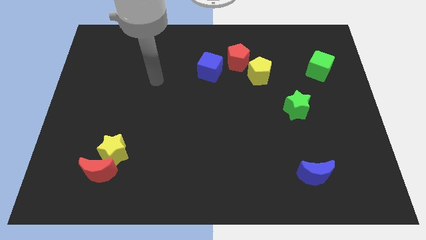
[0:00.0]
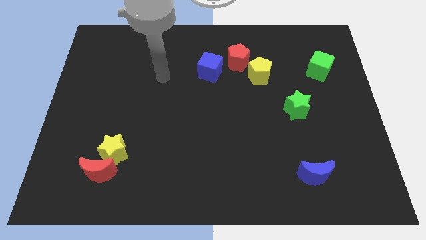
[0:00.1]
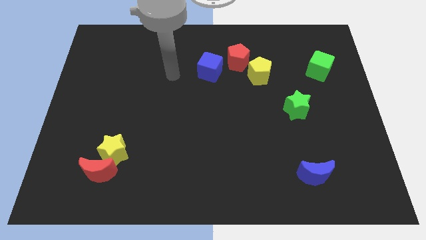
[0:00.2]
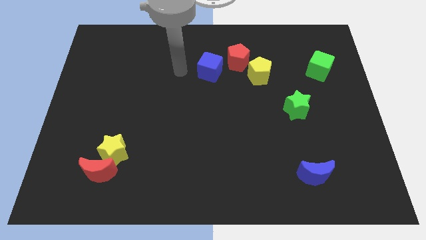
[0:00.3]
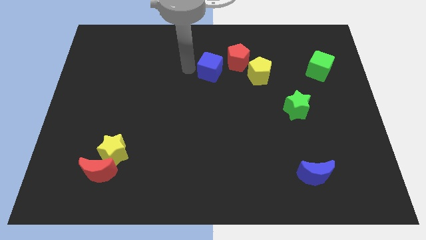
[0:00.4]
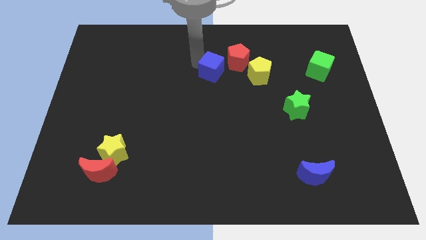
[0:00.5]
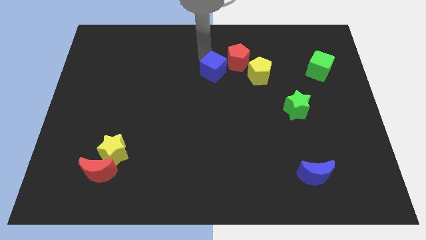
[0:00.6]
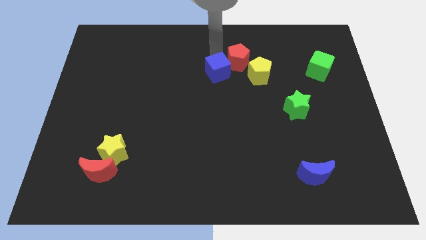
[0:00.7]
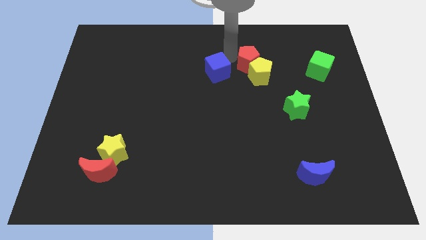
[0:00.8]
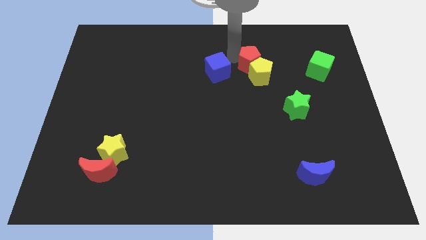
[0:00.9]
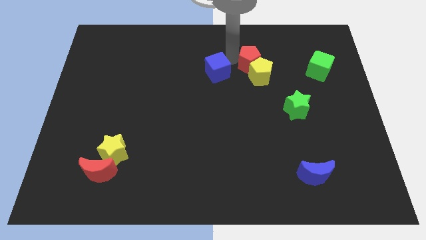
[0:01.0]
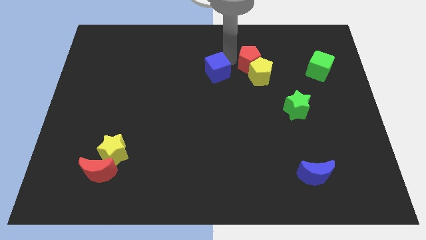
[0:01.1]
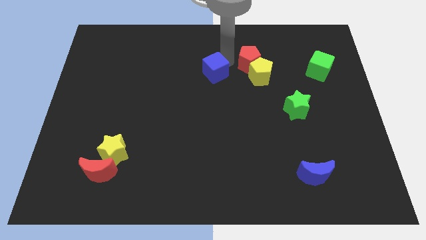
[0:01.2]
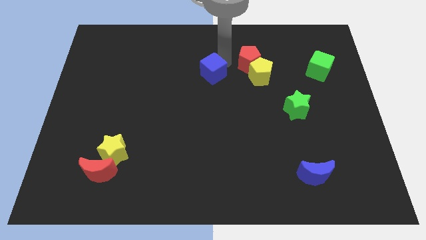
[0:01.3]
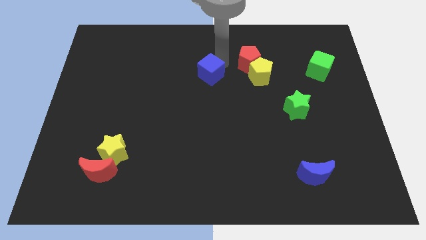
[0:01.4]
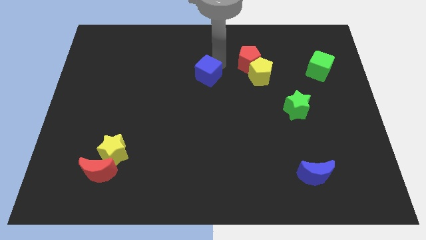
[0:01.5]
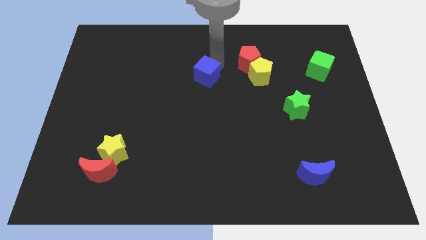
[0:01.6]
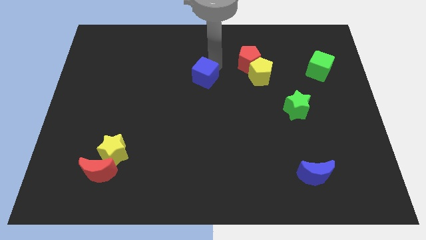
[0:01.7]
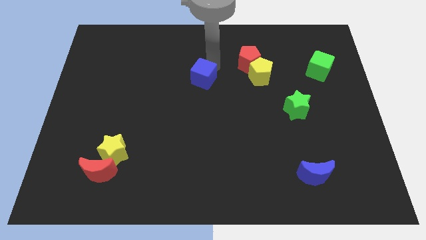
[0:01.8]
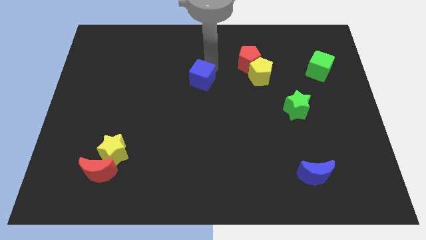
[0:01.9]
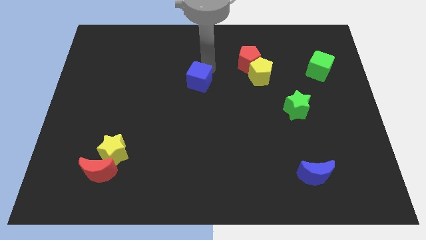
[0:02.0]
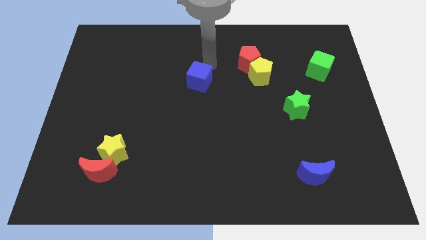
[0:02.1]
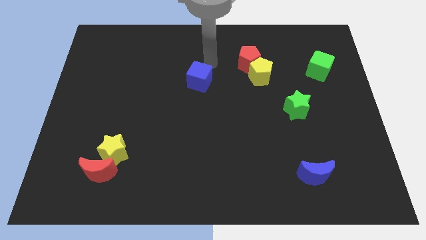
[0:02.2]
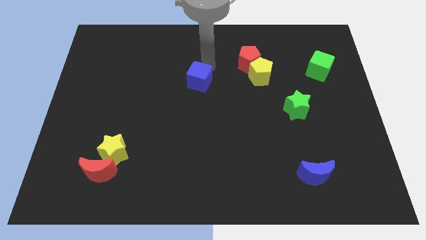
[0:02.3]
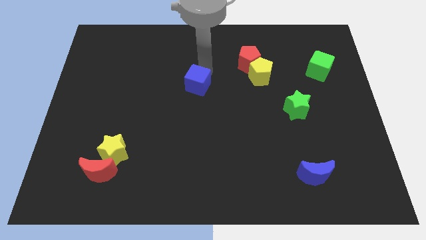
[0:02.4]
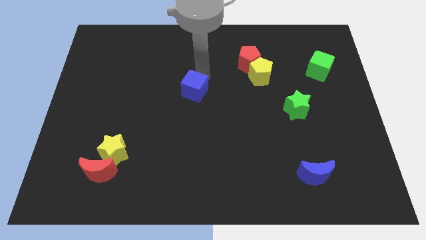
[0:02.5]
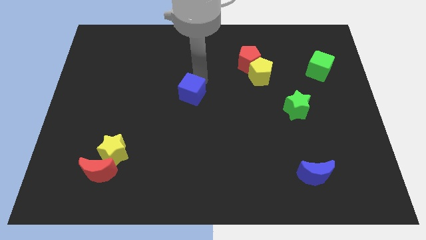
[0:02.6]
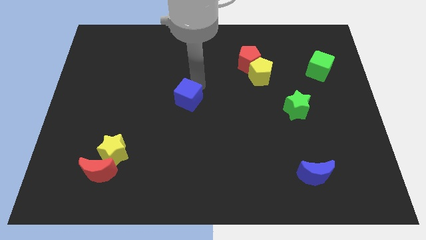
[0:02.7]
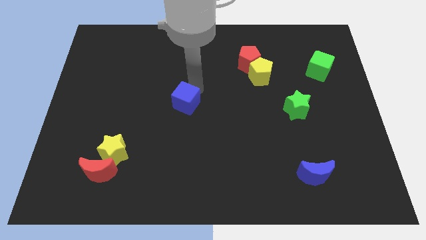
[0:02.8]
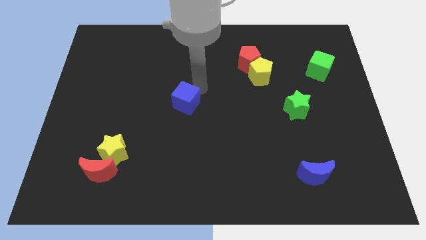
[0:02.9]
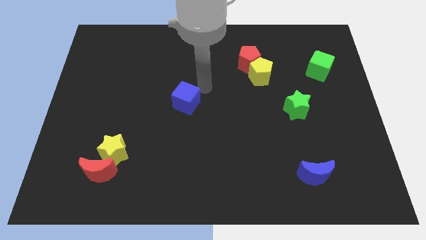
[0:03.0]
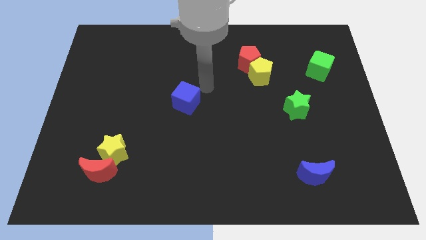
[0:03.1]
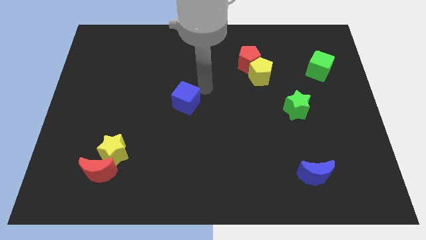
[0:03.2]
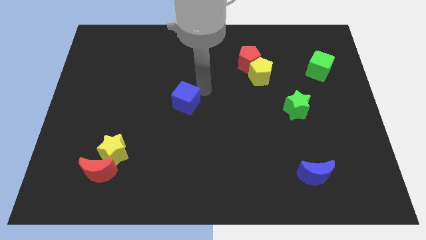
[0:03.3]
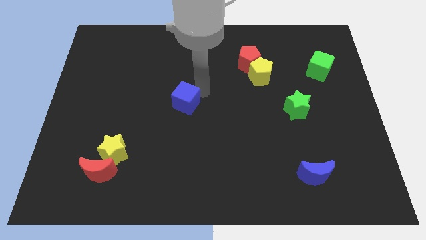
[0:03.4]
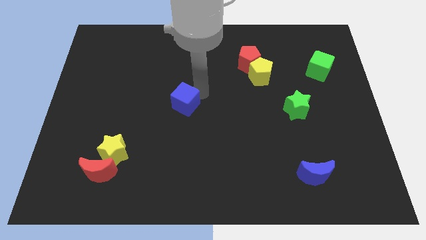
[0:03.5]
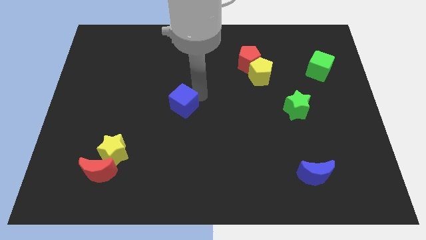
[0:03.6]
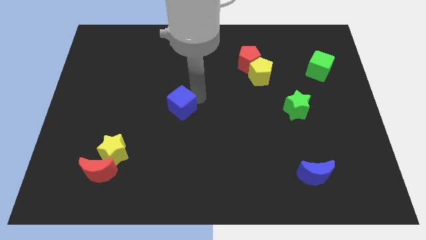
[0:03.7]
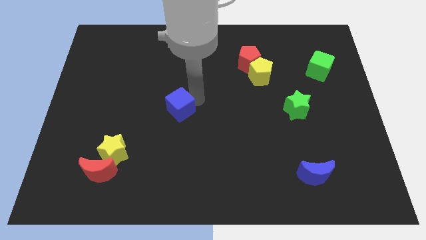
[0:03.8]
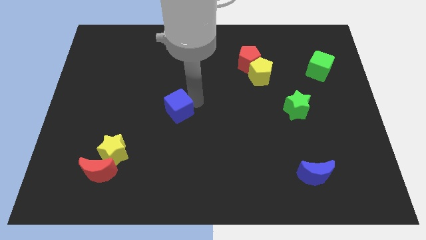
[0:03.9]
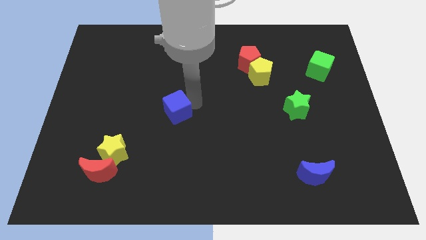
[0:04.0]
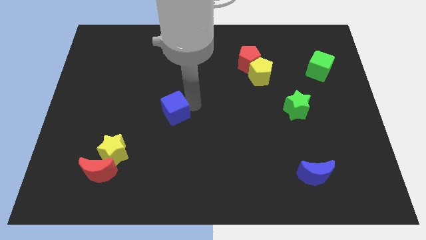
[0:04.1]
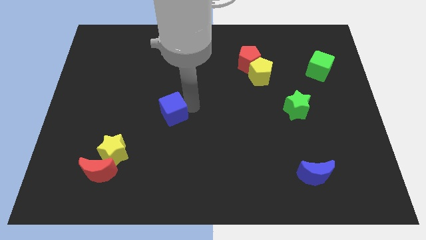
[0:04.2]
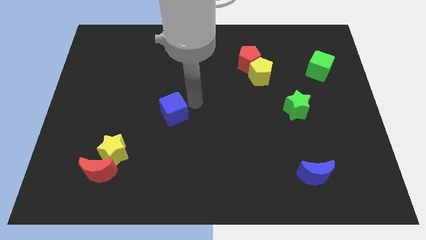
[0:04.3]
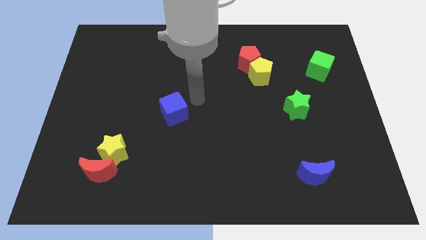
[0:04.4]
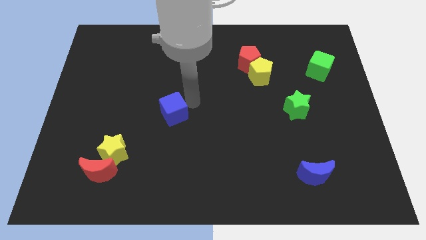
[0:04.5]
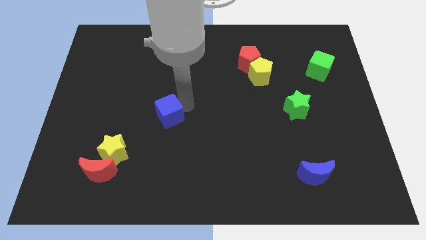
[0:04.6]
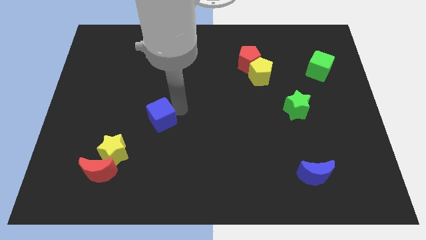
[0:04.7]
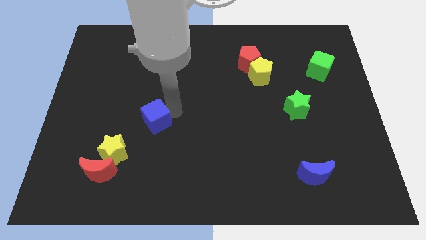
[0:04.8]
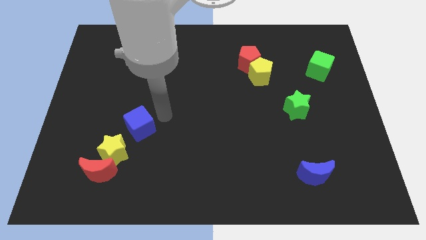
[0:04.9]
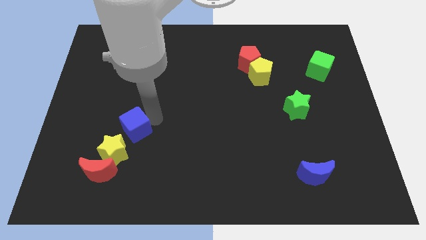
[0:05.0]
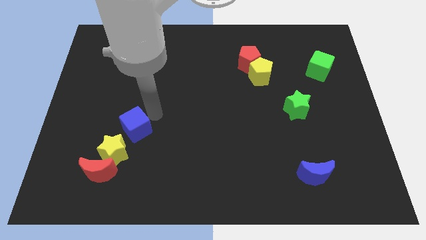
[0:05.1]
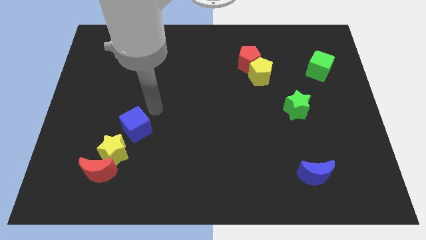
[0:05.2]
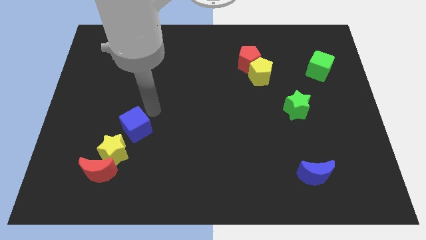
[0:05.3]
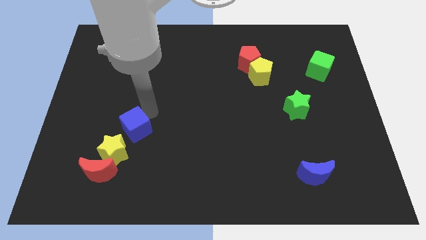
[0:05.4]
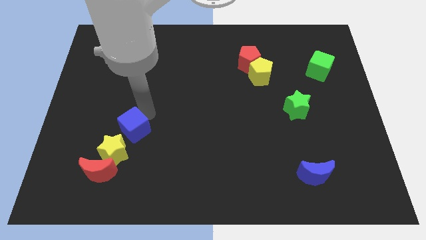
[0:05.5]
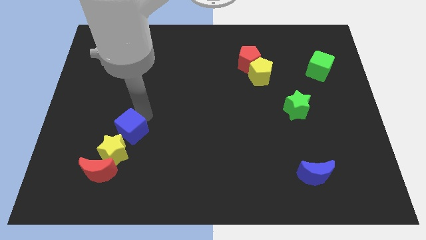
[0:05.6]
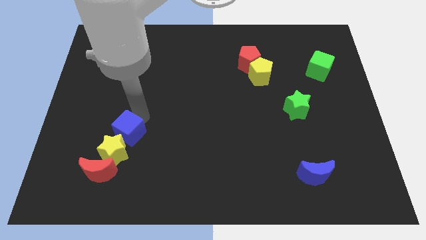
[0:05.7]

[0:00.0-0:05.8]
put the blue cube close to the yellow star

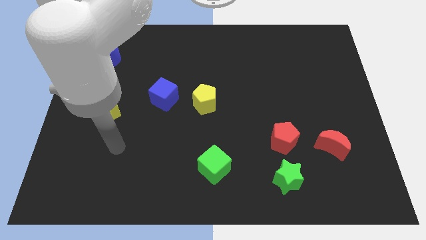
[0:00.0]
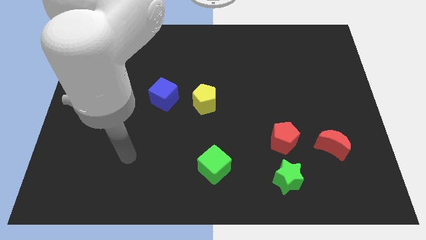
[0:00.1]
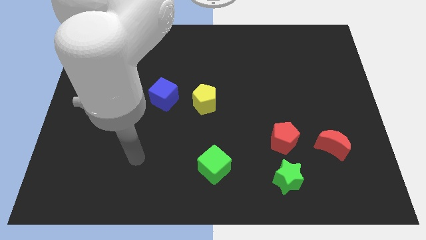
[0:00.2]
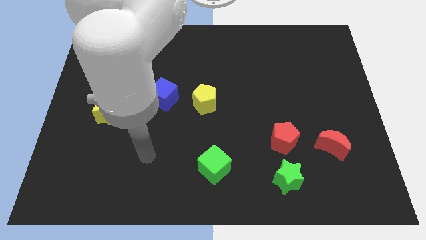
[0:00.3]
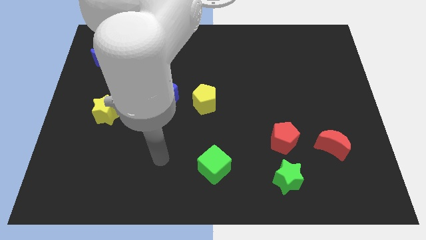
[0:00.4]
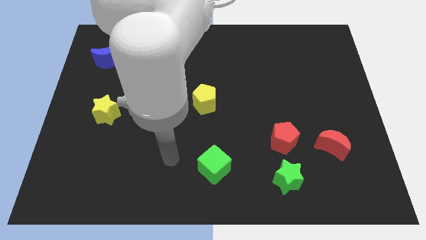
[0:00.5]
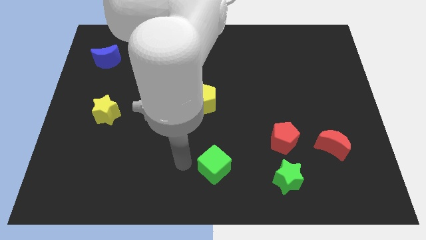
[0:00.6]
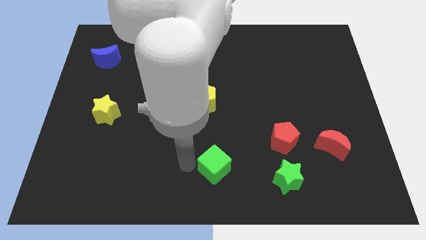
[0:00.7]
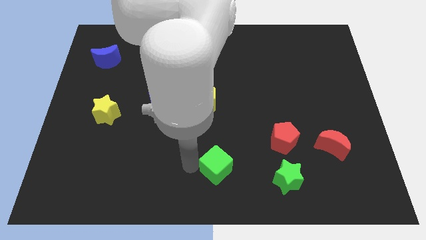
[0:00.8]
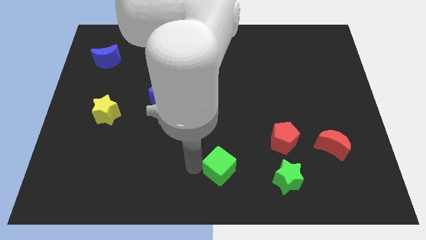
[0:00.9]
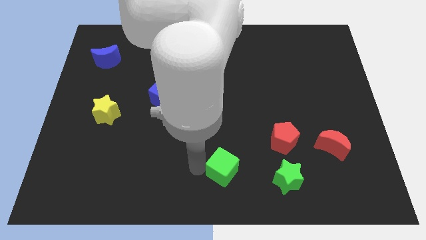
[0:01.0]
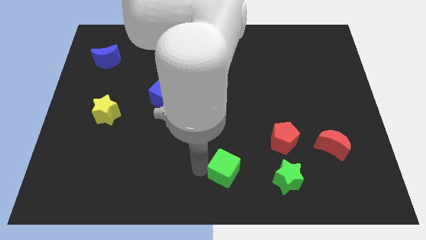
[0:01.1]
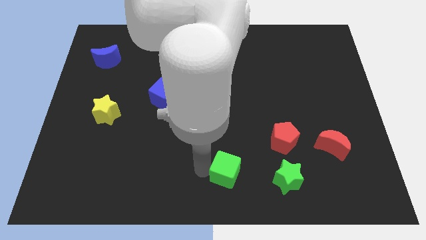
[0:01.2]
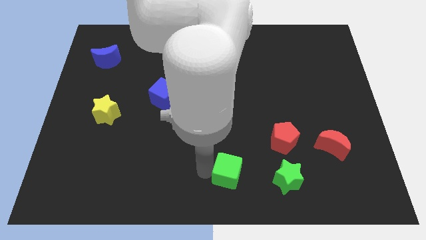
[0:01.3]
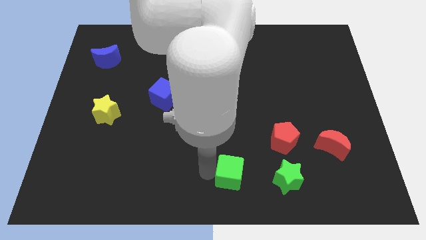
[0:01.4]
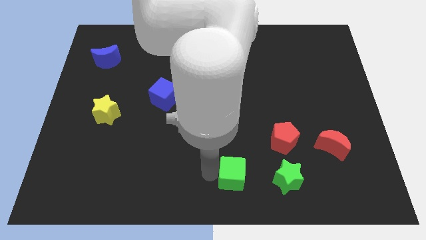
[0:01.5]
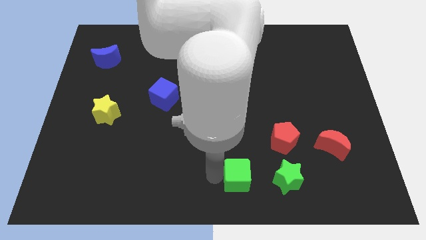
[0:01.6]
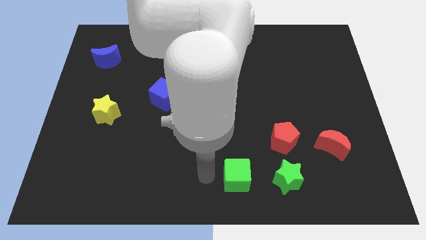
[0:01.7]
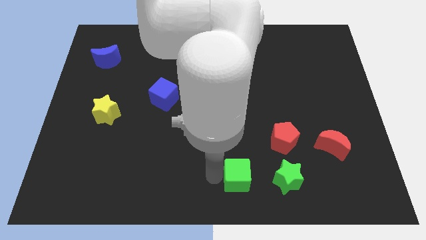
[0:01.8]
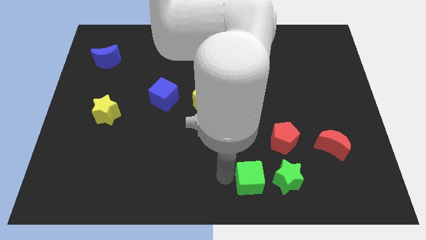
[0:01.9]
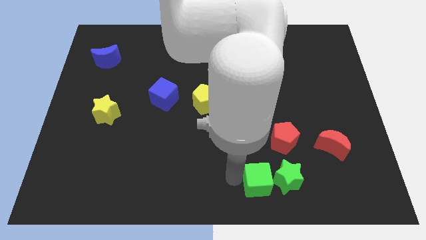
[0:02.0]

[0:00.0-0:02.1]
put the green cube towards the green star
